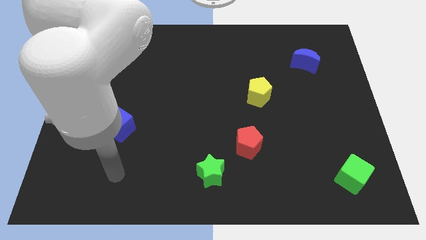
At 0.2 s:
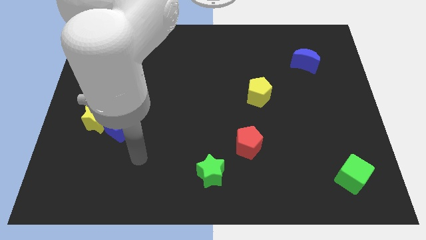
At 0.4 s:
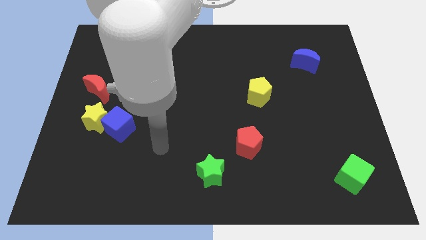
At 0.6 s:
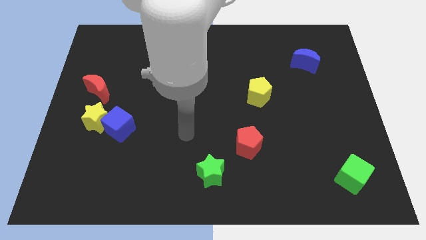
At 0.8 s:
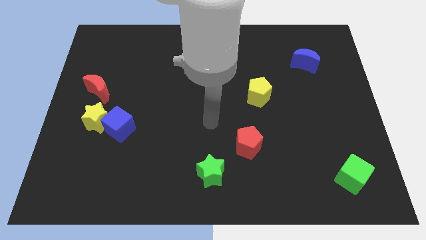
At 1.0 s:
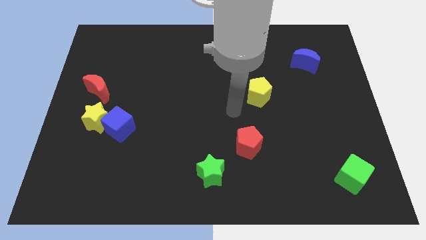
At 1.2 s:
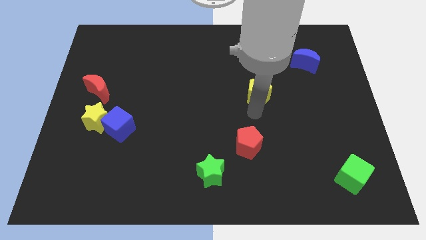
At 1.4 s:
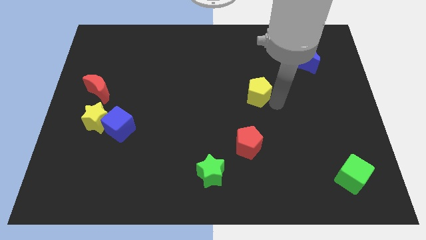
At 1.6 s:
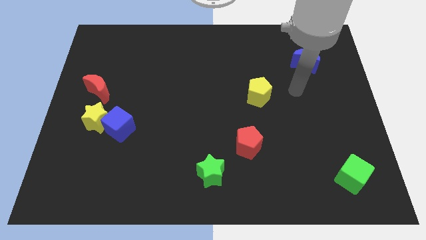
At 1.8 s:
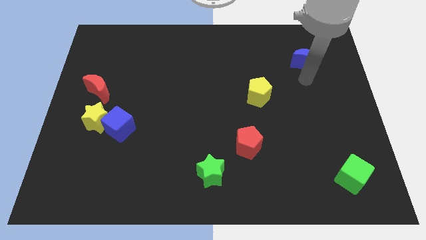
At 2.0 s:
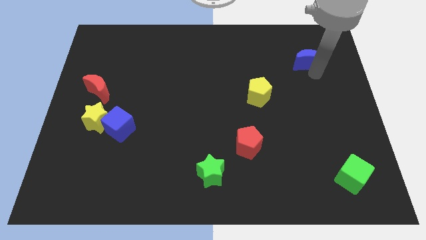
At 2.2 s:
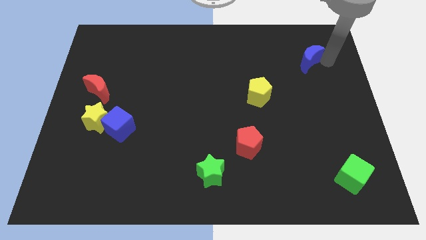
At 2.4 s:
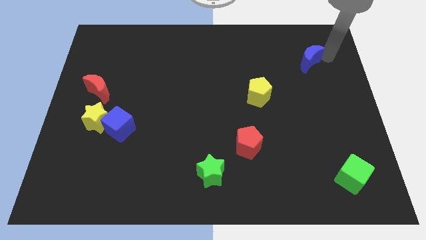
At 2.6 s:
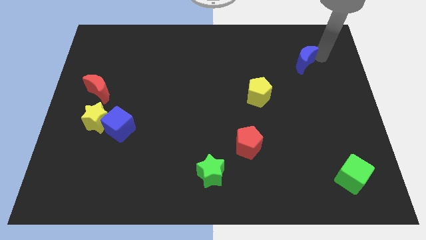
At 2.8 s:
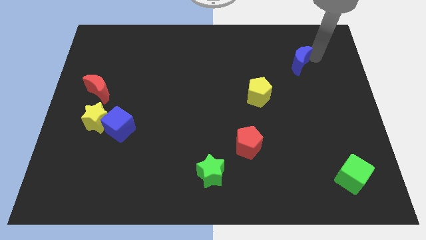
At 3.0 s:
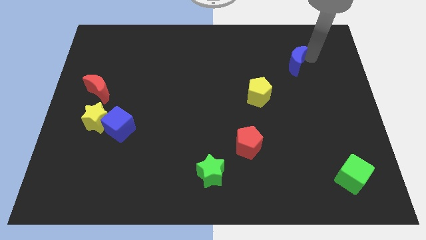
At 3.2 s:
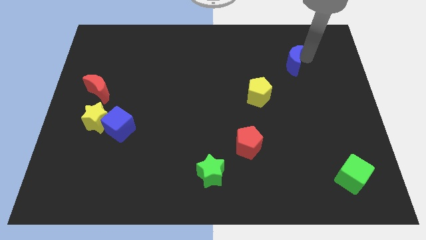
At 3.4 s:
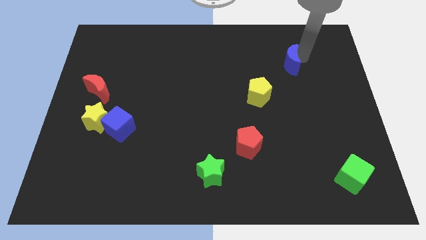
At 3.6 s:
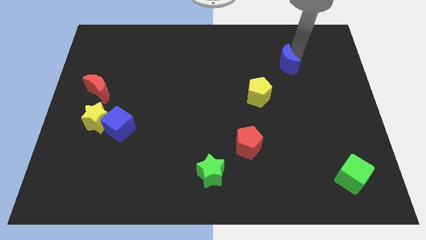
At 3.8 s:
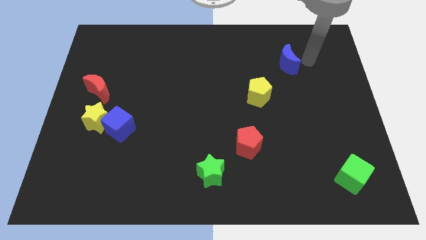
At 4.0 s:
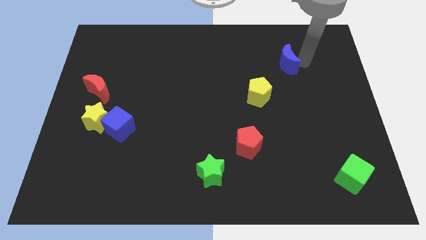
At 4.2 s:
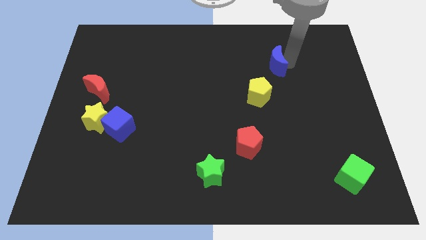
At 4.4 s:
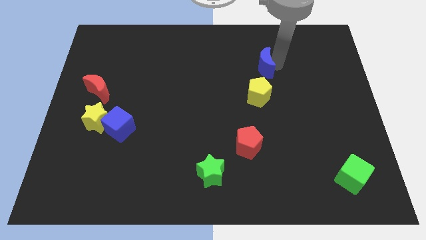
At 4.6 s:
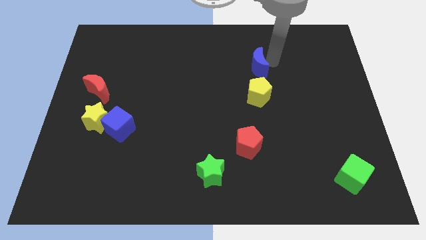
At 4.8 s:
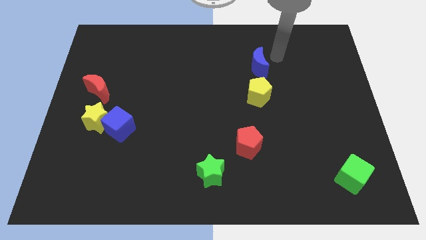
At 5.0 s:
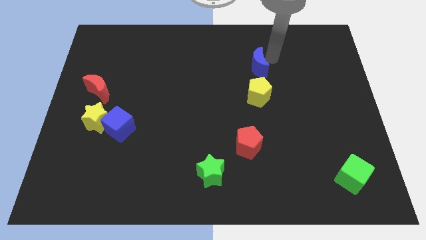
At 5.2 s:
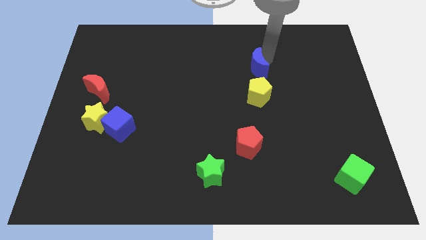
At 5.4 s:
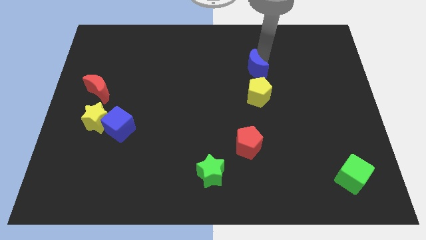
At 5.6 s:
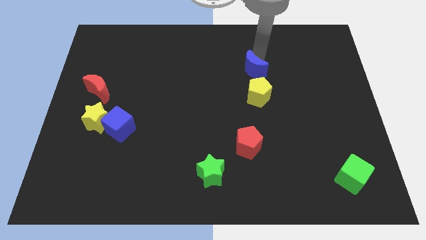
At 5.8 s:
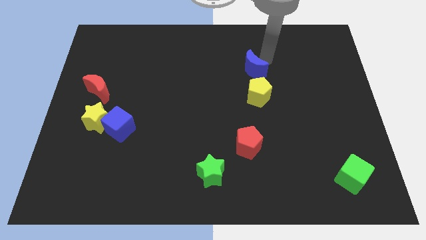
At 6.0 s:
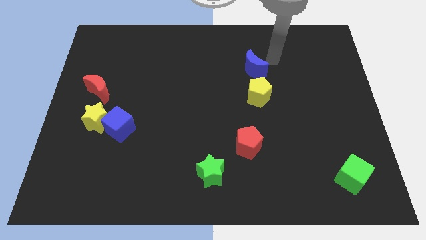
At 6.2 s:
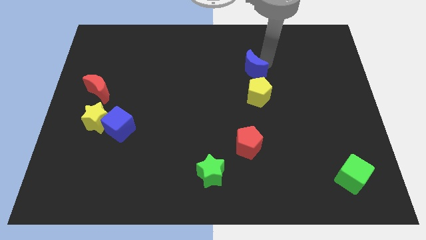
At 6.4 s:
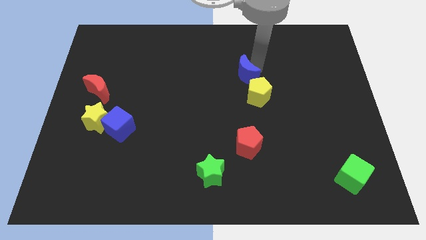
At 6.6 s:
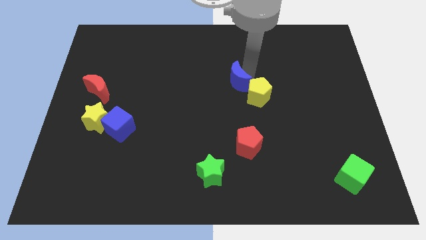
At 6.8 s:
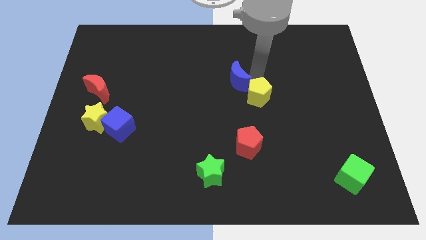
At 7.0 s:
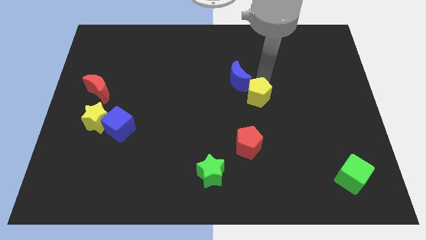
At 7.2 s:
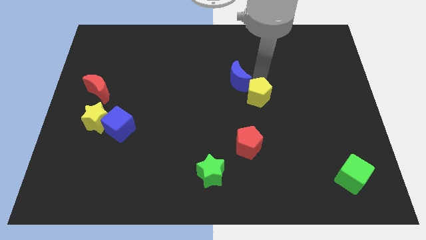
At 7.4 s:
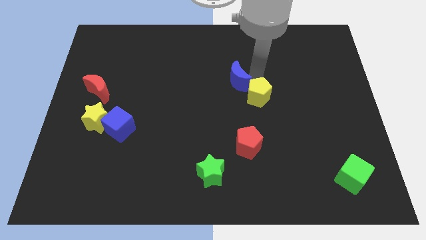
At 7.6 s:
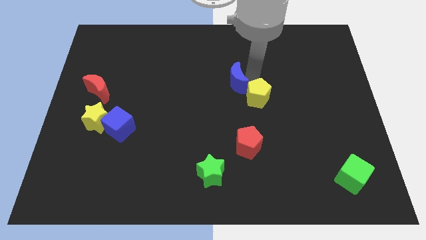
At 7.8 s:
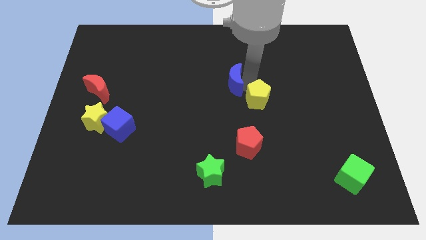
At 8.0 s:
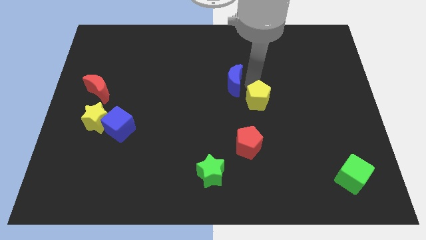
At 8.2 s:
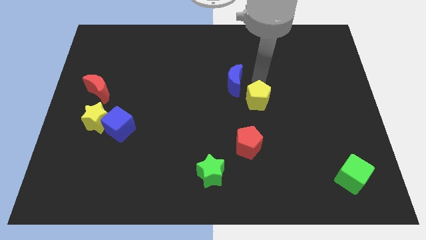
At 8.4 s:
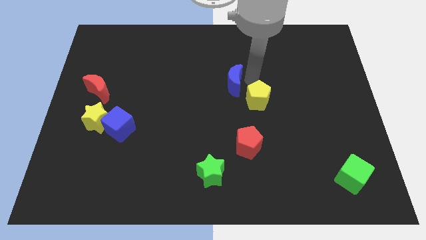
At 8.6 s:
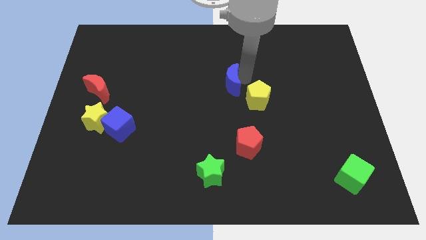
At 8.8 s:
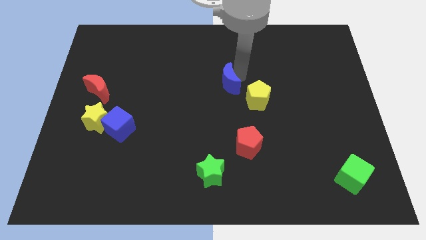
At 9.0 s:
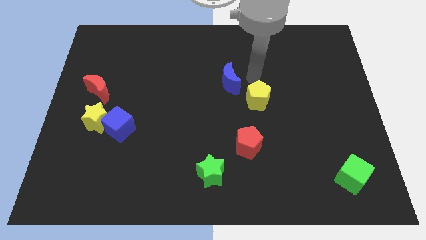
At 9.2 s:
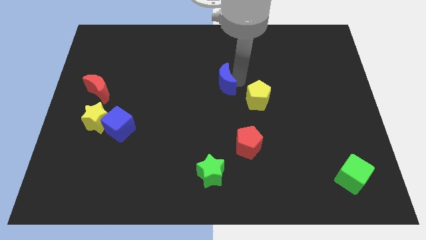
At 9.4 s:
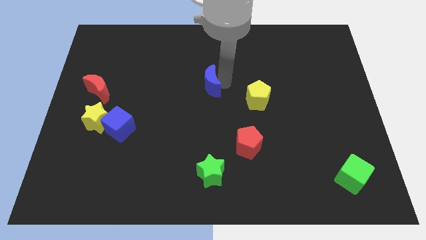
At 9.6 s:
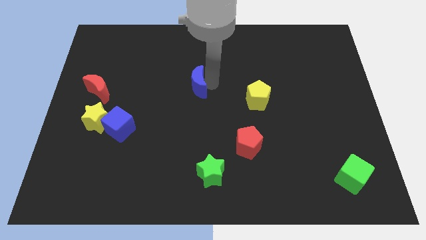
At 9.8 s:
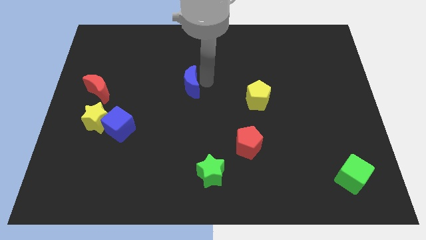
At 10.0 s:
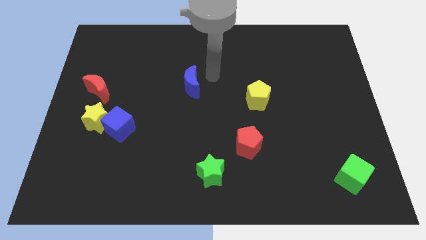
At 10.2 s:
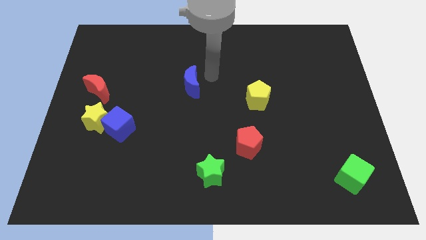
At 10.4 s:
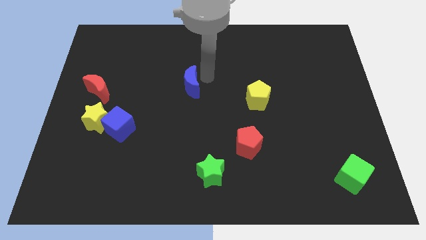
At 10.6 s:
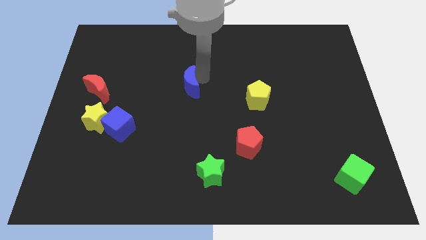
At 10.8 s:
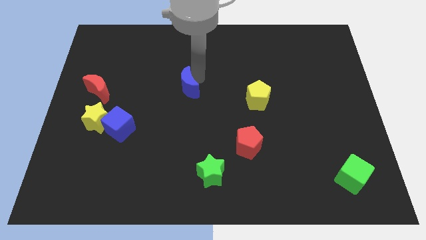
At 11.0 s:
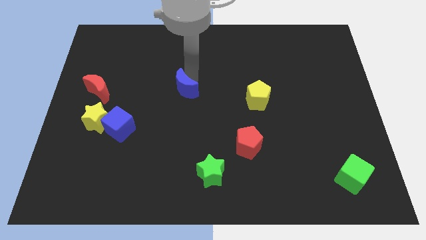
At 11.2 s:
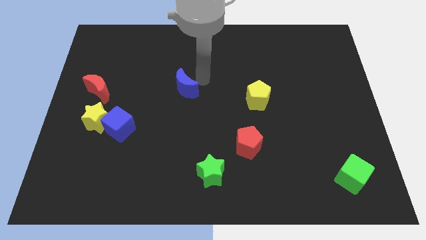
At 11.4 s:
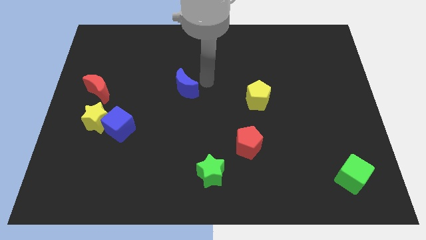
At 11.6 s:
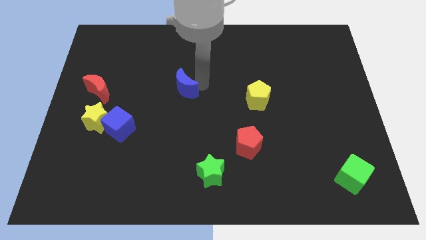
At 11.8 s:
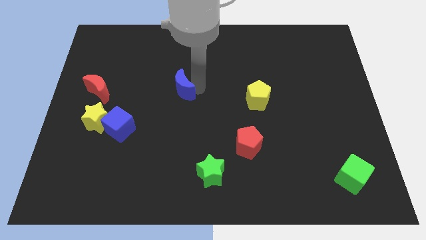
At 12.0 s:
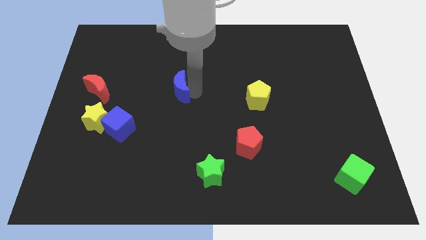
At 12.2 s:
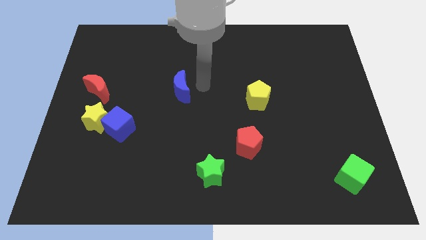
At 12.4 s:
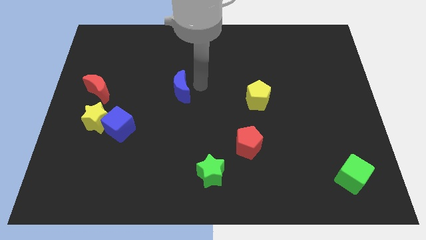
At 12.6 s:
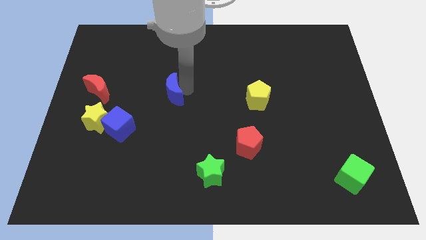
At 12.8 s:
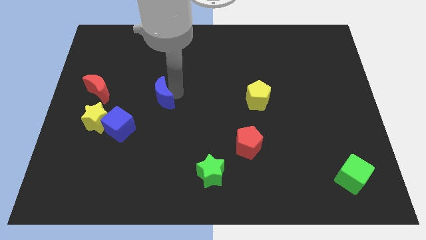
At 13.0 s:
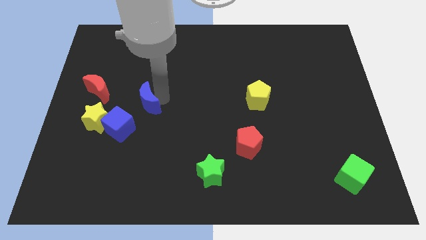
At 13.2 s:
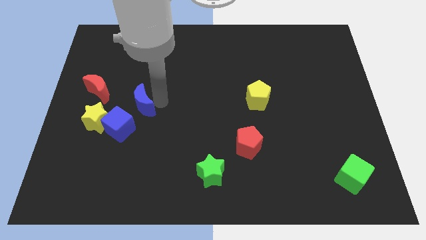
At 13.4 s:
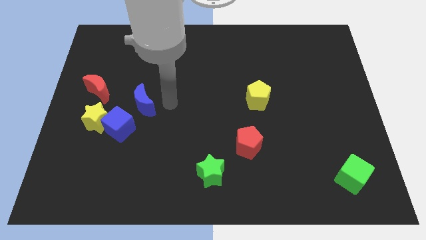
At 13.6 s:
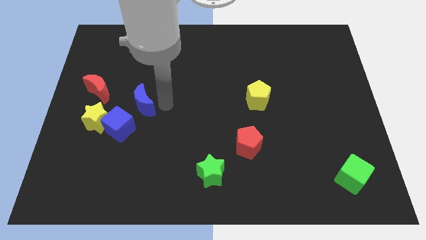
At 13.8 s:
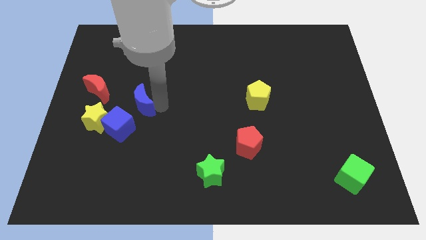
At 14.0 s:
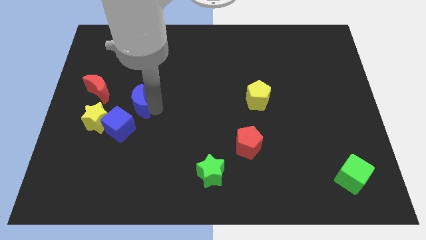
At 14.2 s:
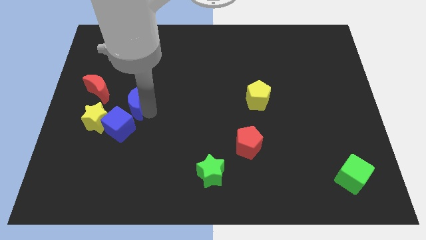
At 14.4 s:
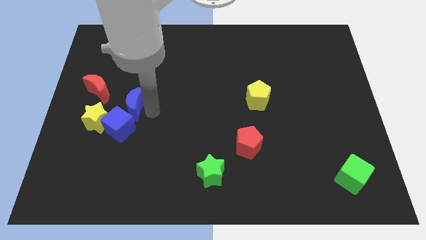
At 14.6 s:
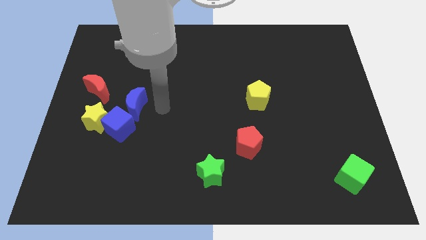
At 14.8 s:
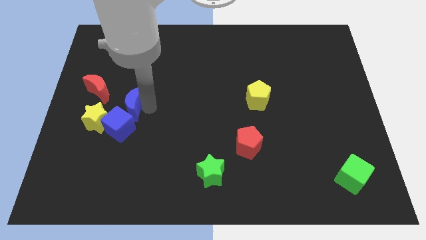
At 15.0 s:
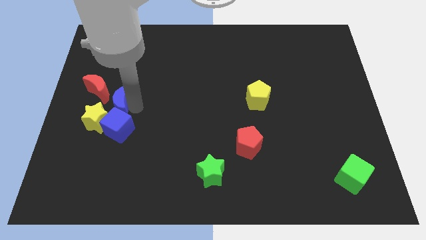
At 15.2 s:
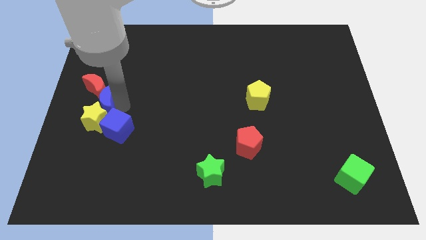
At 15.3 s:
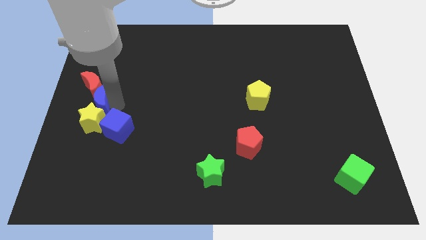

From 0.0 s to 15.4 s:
slide the blue moon to the center left
